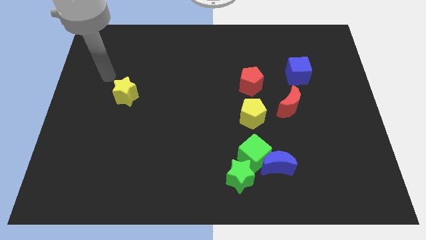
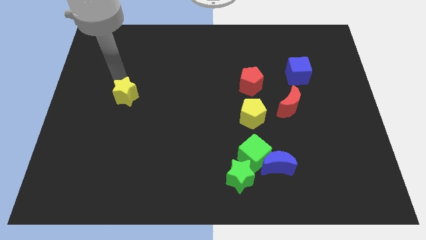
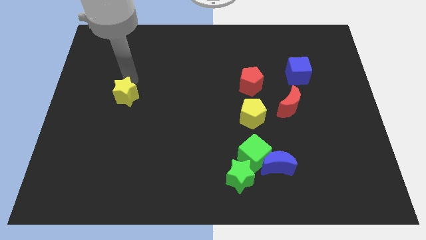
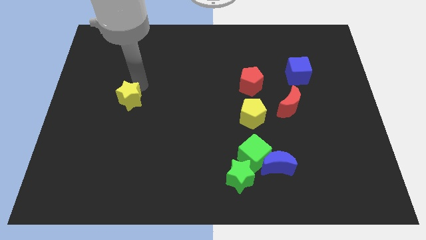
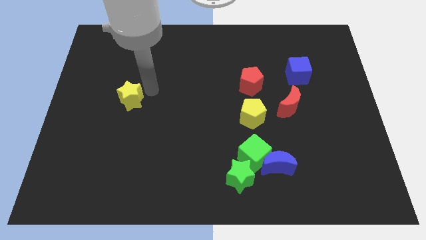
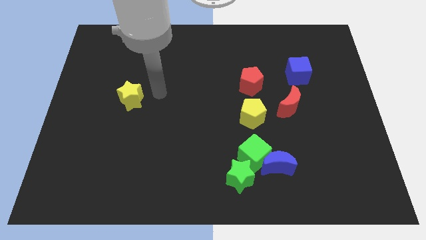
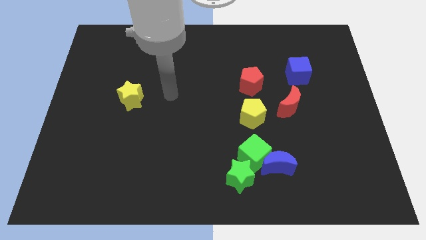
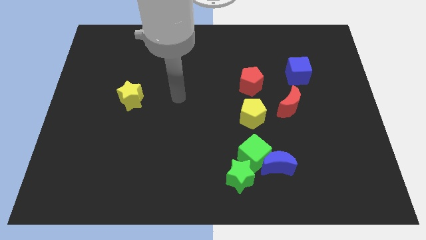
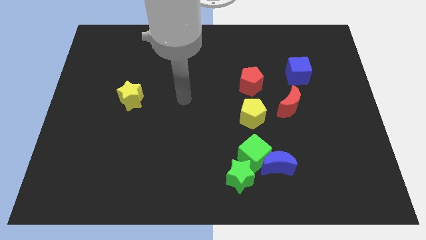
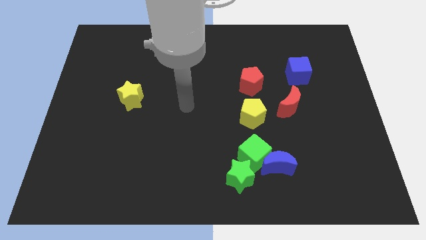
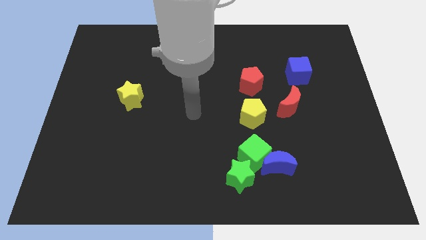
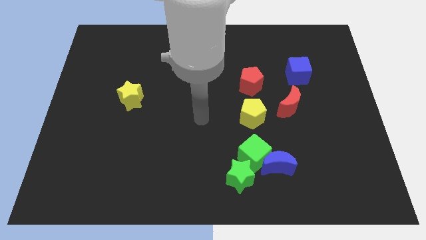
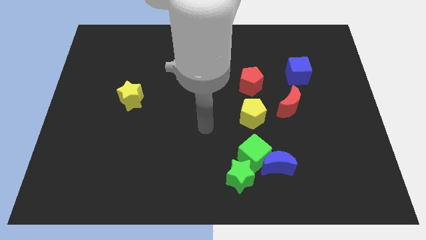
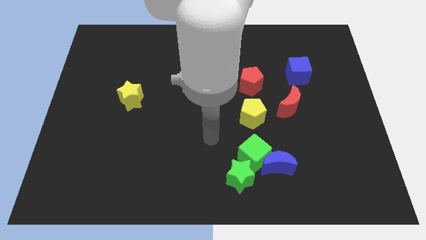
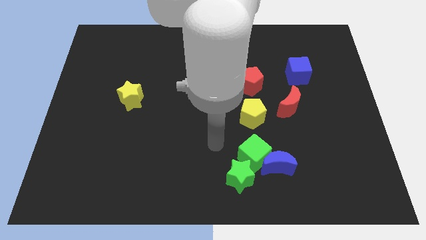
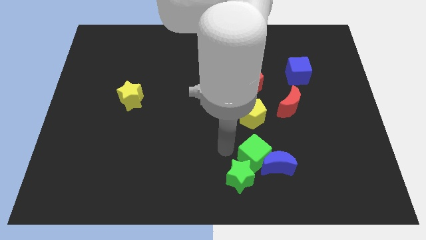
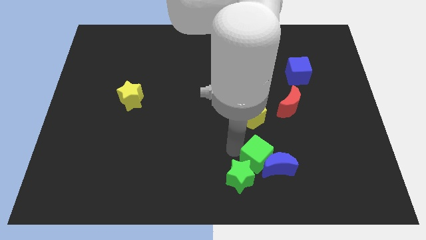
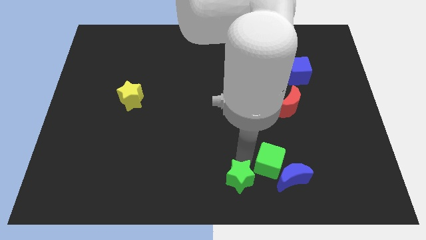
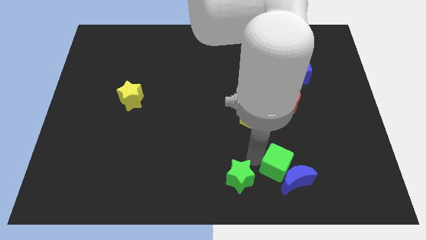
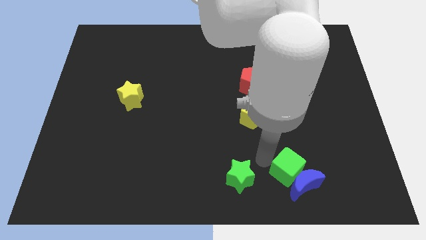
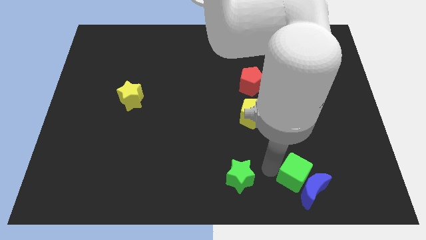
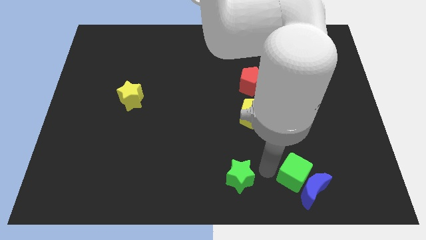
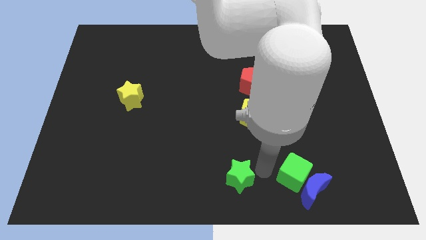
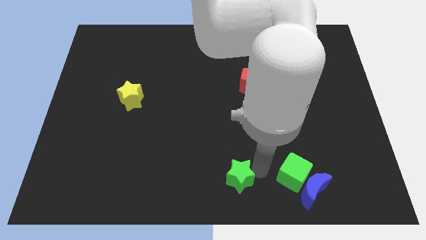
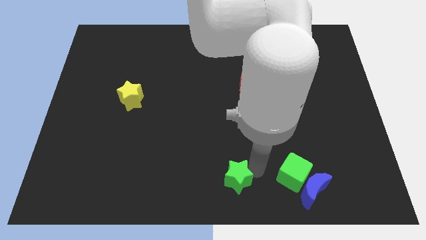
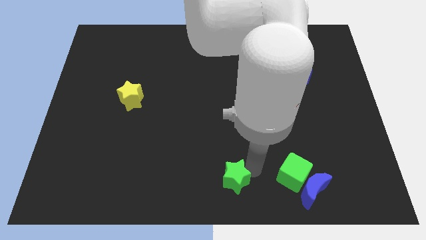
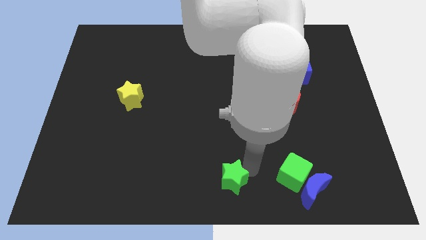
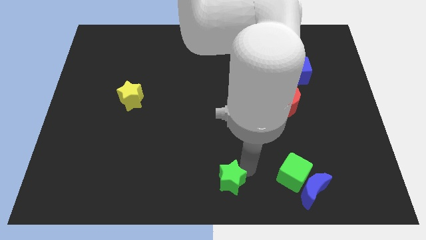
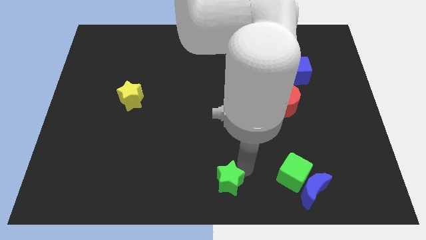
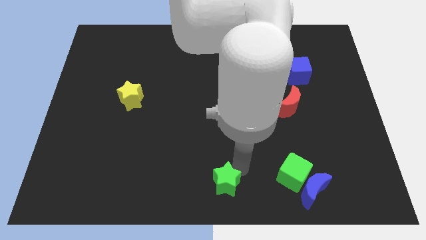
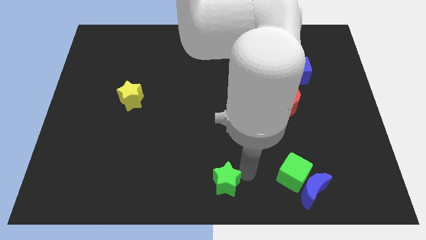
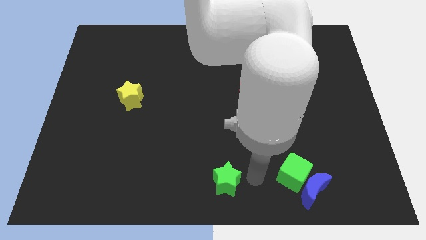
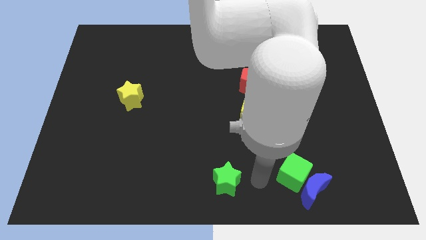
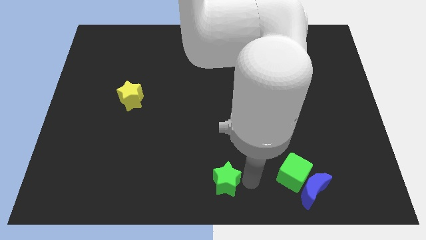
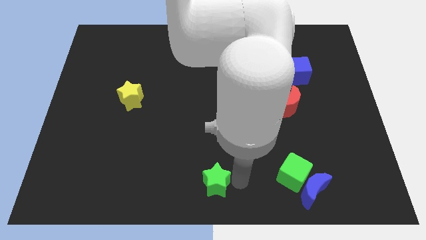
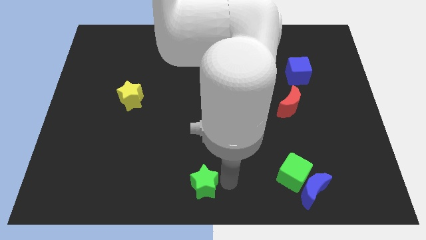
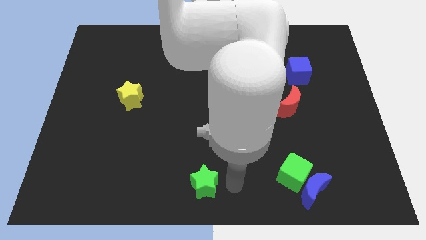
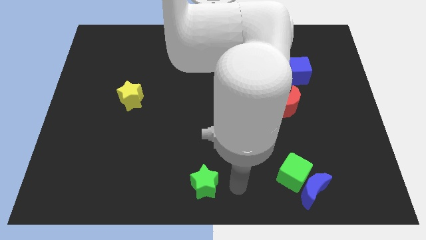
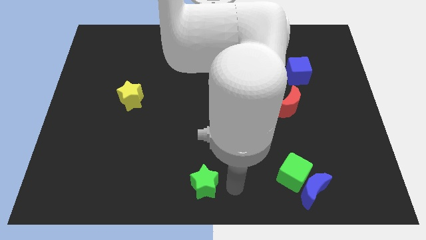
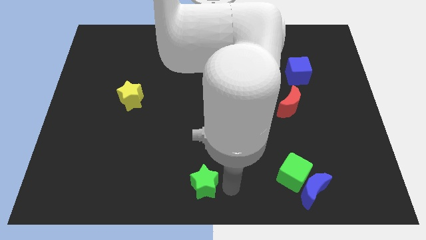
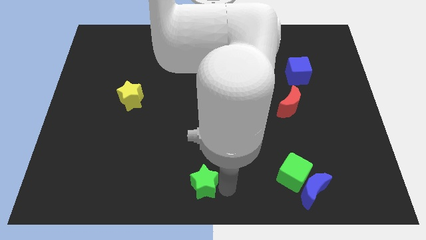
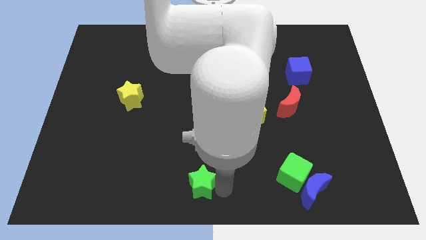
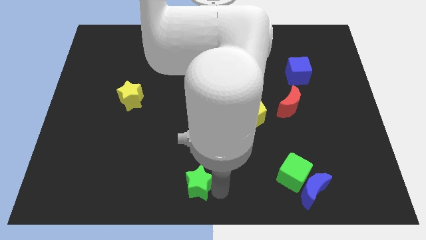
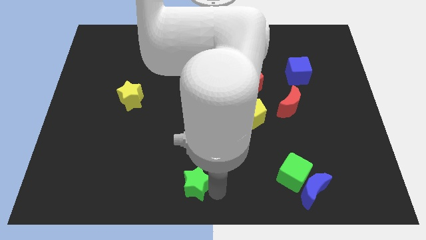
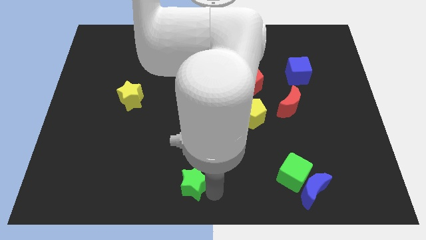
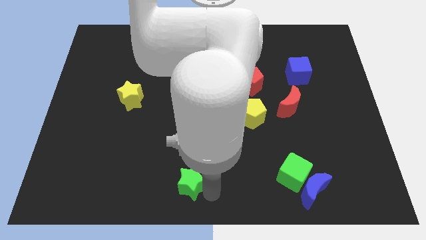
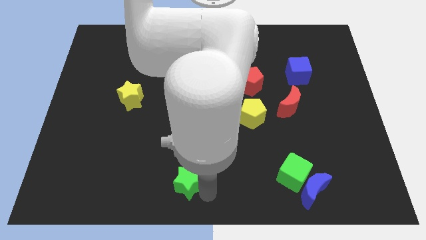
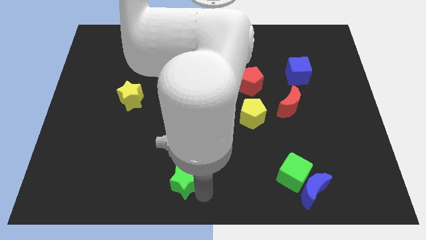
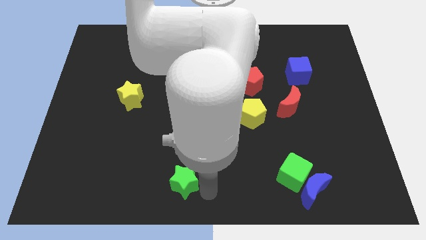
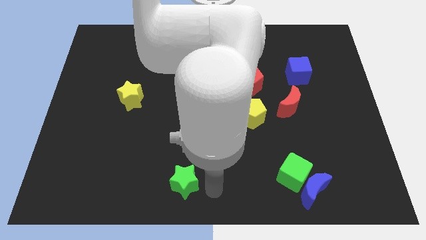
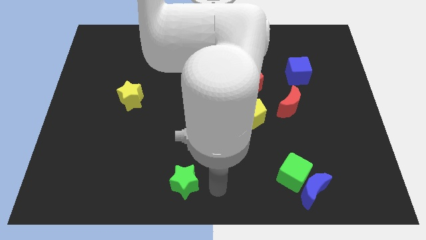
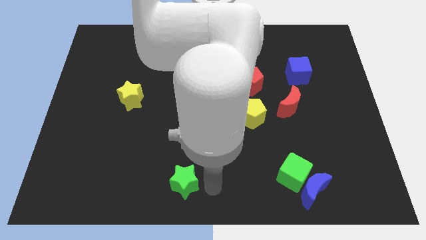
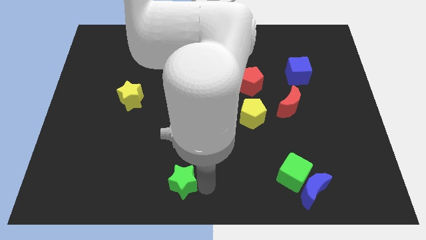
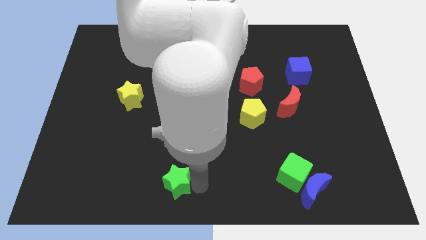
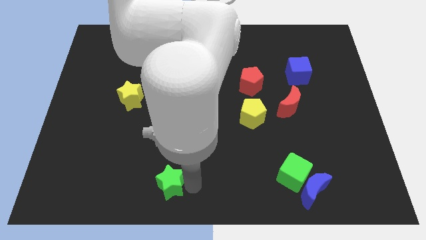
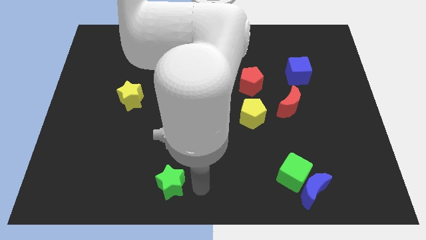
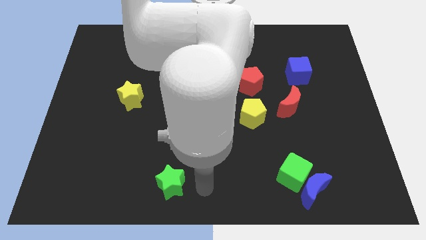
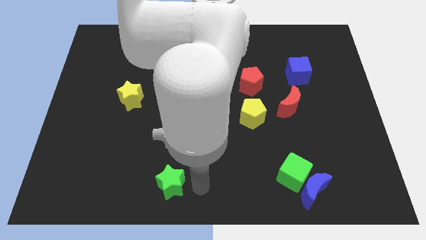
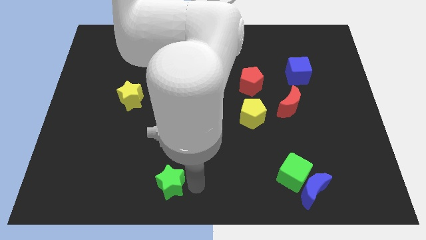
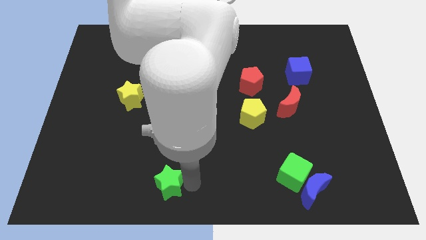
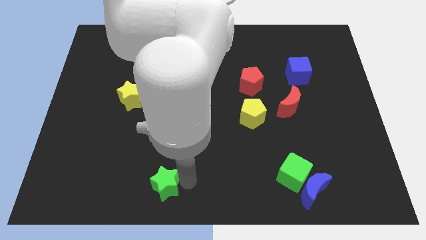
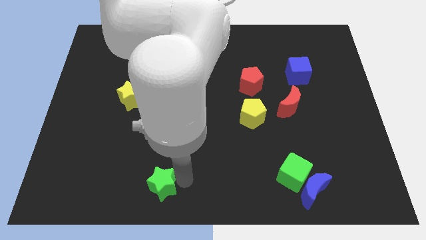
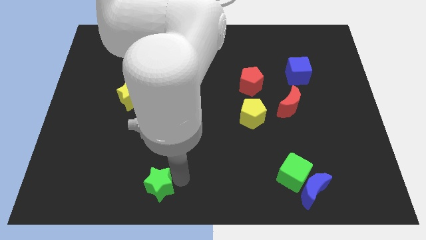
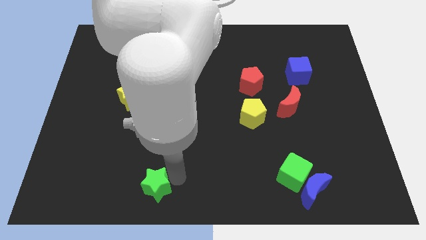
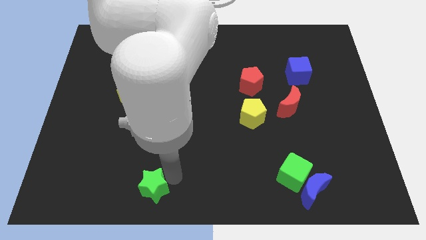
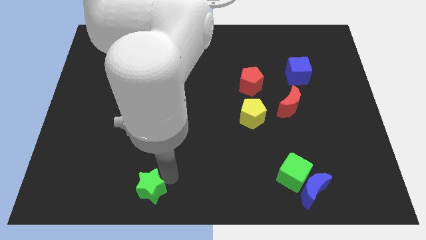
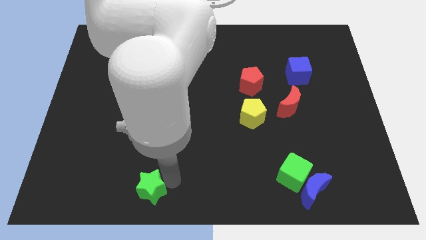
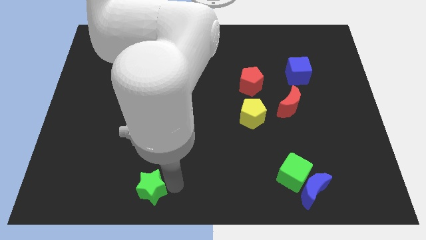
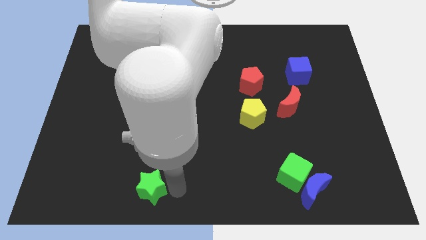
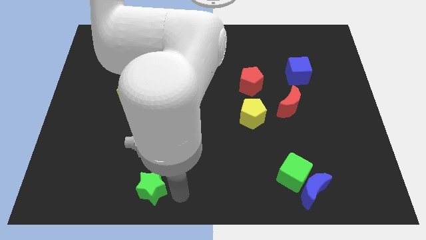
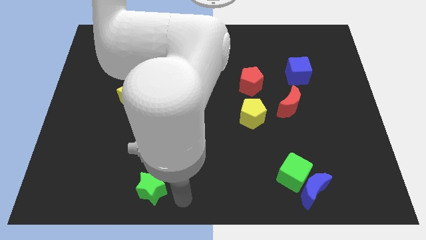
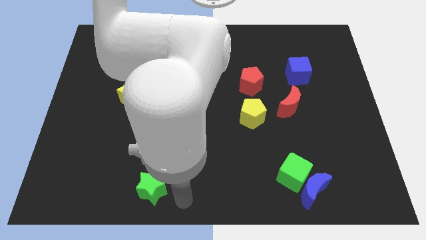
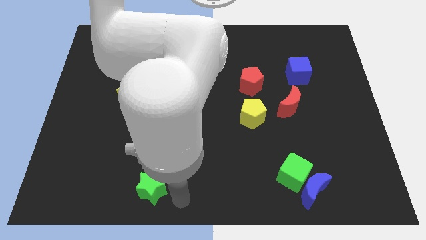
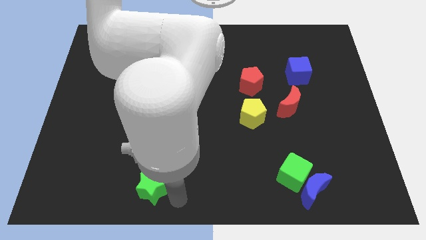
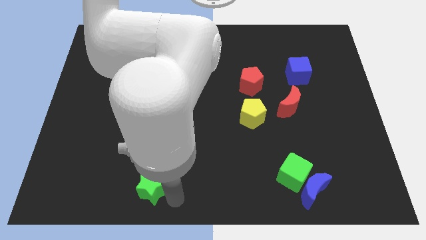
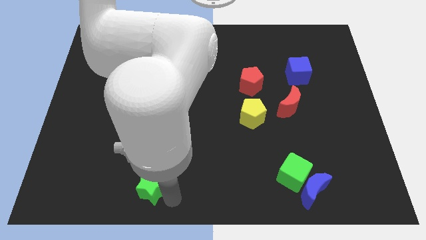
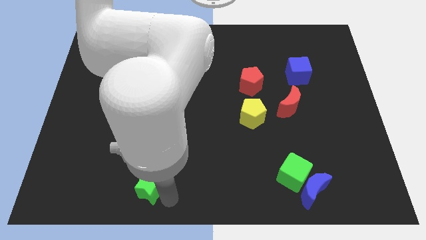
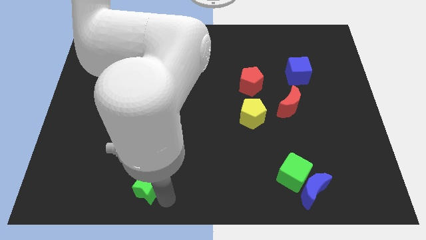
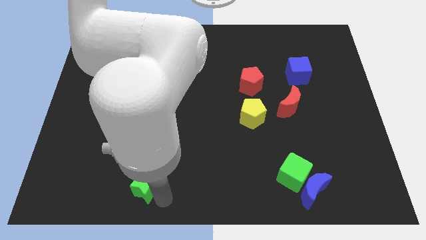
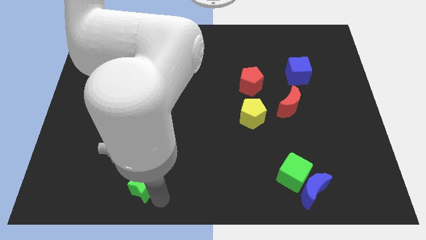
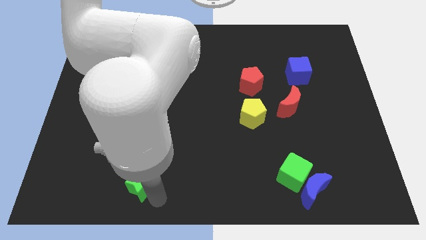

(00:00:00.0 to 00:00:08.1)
push the green star left
